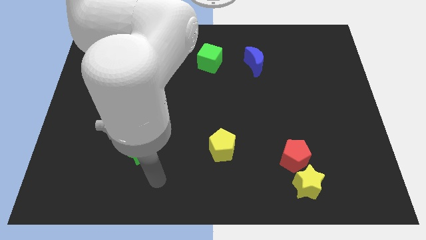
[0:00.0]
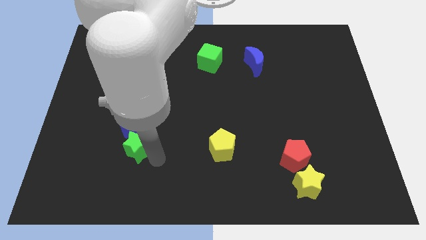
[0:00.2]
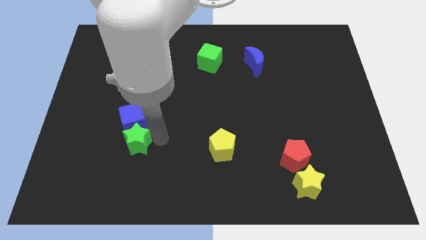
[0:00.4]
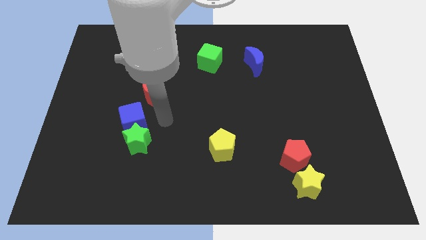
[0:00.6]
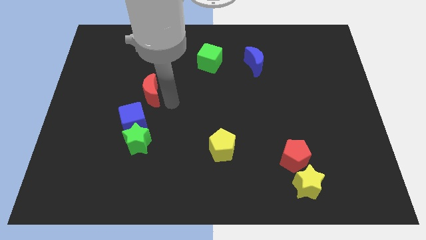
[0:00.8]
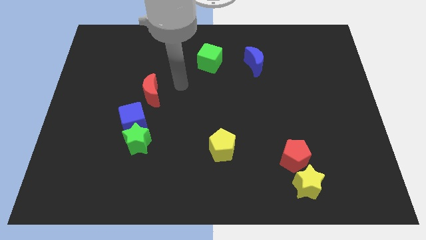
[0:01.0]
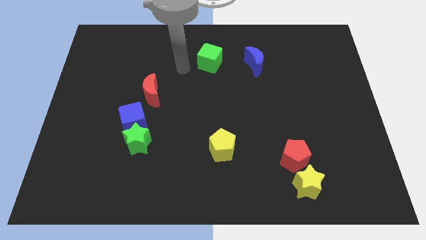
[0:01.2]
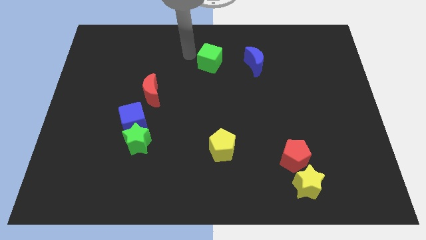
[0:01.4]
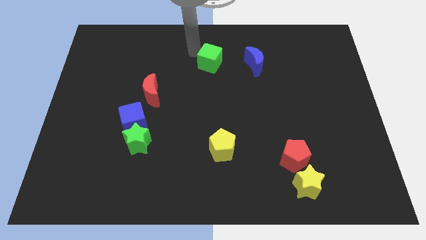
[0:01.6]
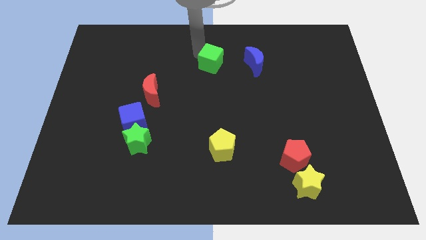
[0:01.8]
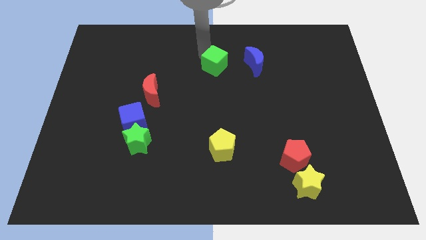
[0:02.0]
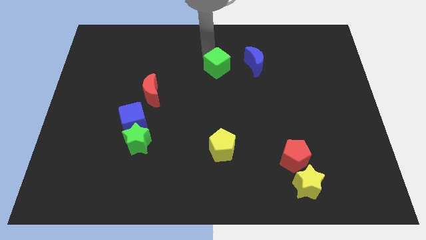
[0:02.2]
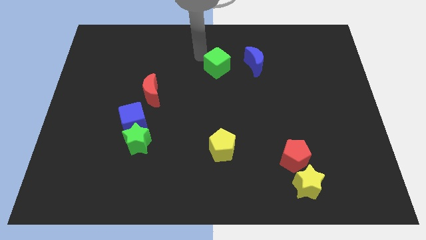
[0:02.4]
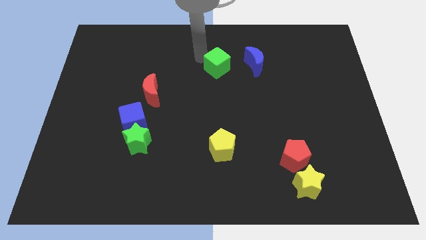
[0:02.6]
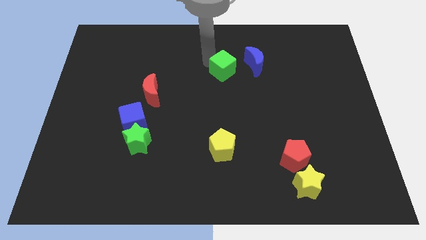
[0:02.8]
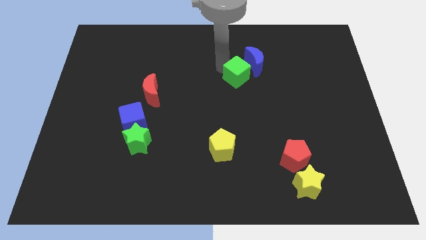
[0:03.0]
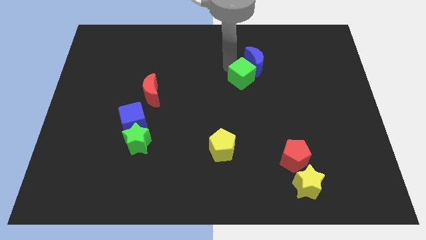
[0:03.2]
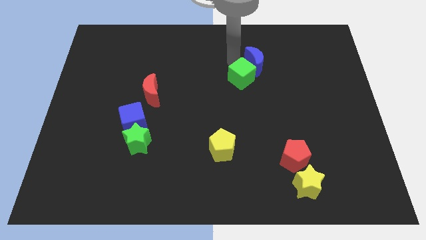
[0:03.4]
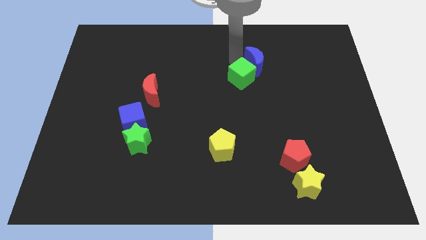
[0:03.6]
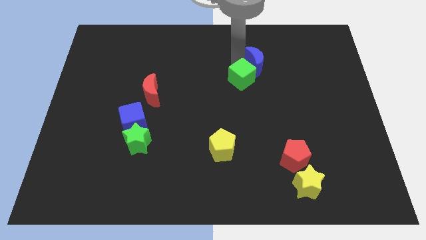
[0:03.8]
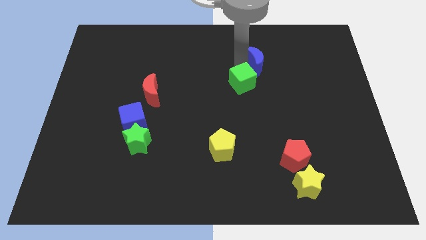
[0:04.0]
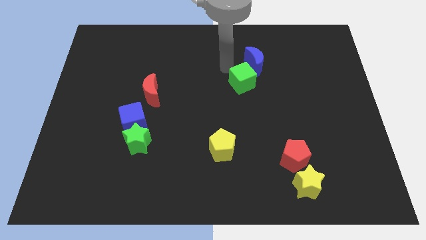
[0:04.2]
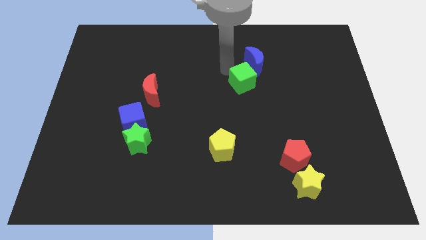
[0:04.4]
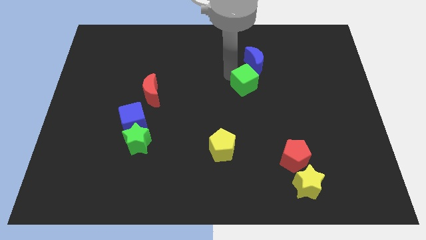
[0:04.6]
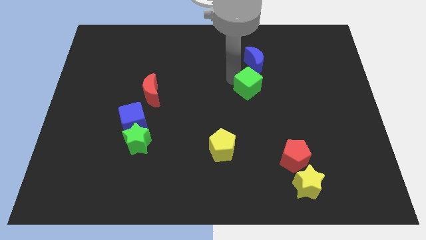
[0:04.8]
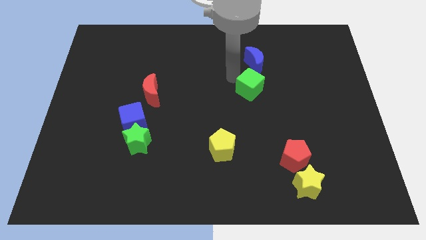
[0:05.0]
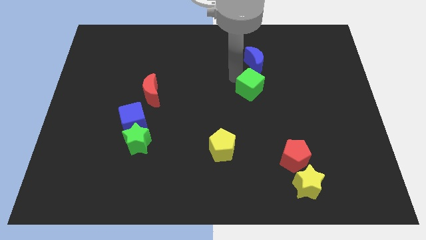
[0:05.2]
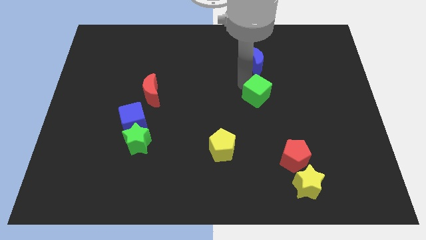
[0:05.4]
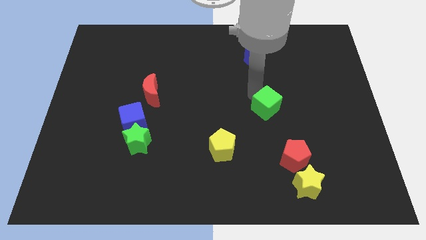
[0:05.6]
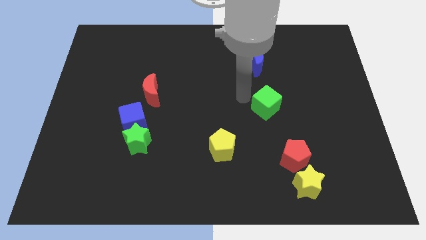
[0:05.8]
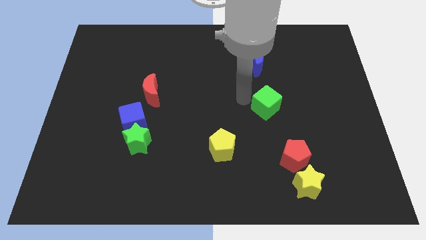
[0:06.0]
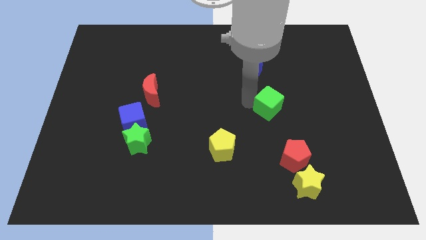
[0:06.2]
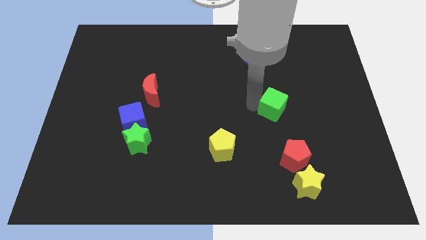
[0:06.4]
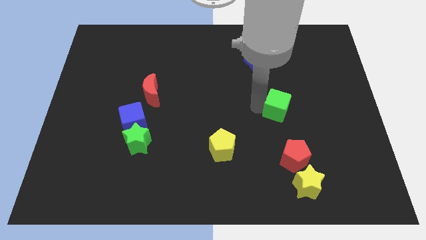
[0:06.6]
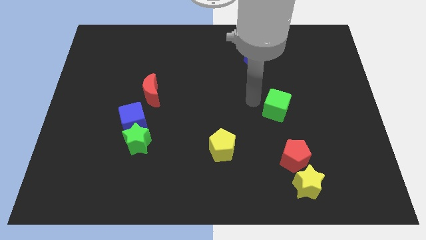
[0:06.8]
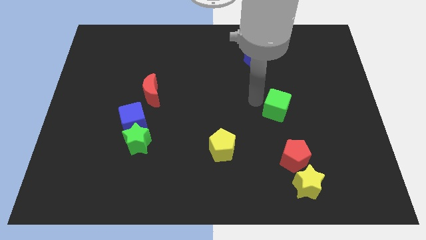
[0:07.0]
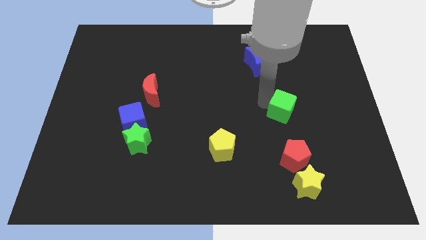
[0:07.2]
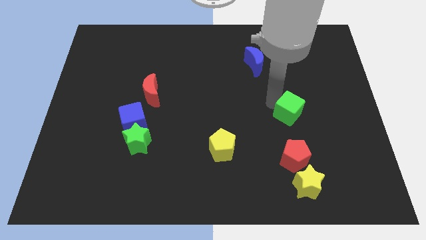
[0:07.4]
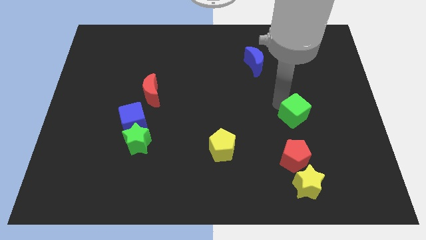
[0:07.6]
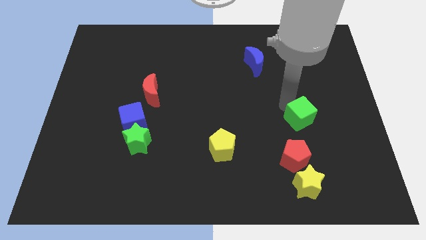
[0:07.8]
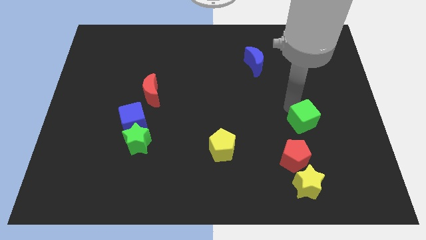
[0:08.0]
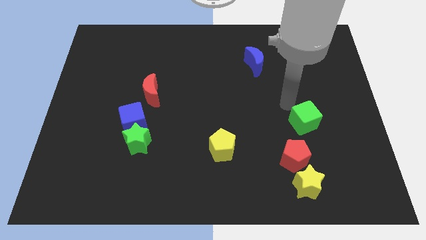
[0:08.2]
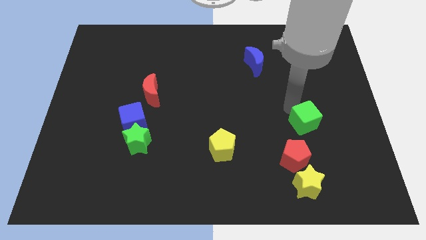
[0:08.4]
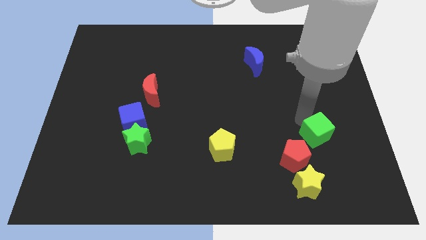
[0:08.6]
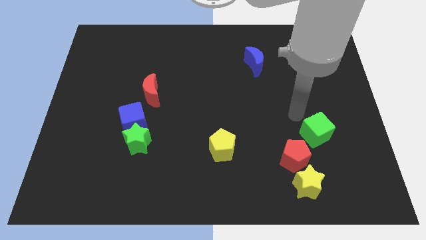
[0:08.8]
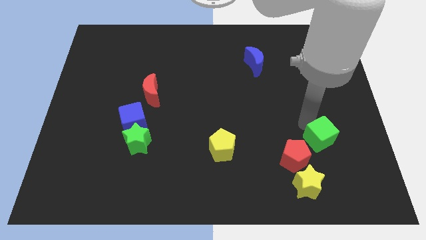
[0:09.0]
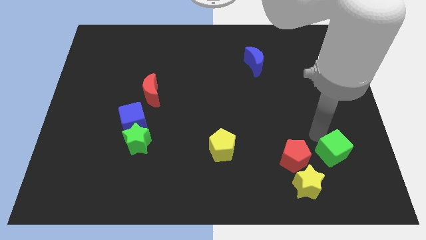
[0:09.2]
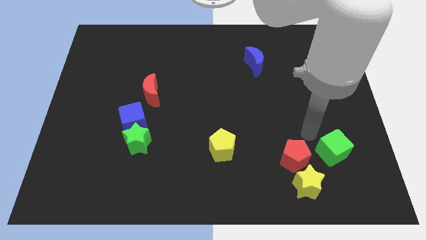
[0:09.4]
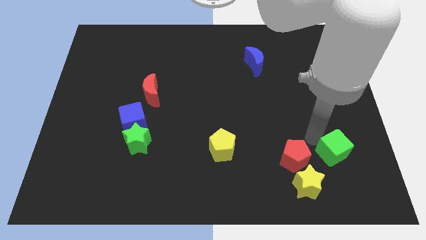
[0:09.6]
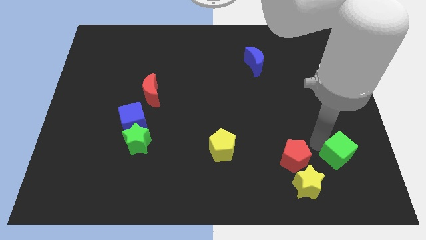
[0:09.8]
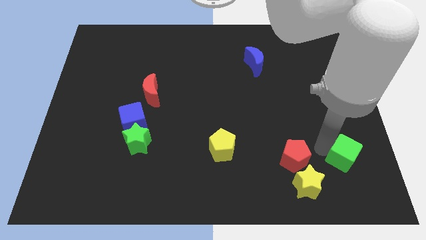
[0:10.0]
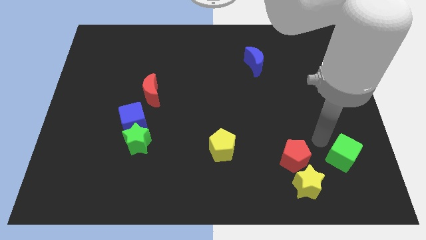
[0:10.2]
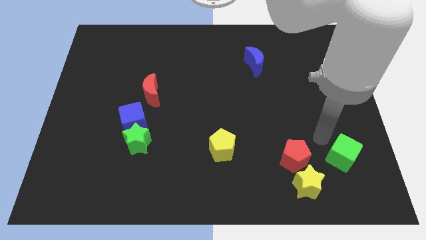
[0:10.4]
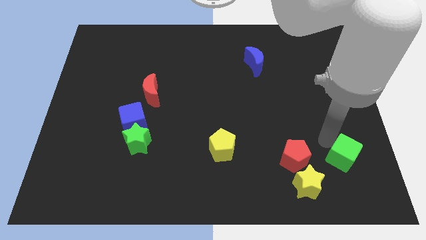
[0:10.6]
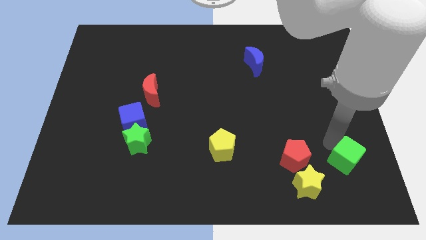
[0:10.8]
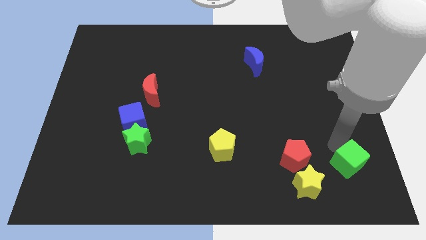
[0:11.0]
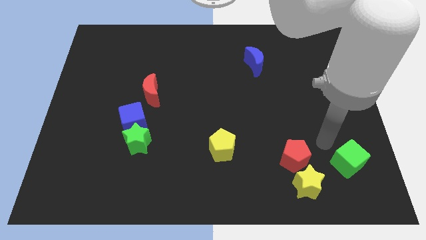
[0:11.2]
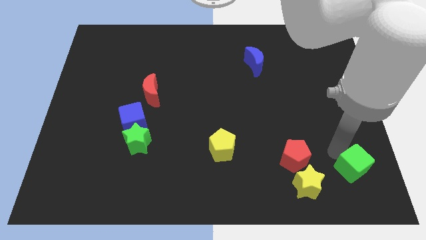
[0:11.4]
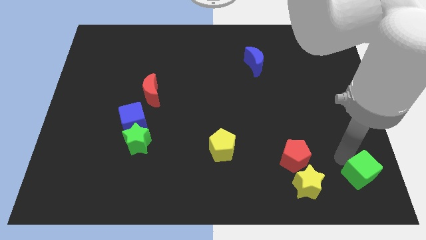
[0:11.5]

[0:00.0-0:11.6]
push the green cube to the bottom right of the board

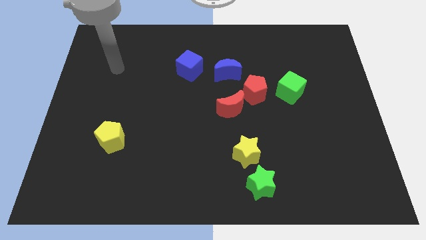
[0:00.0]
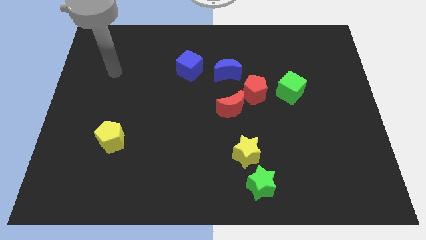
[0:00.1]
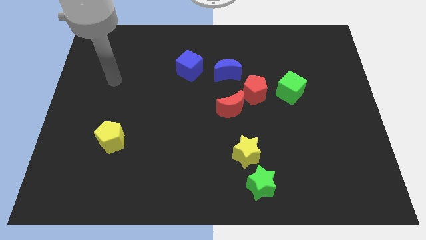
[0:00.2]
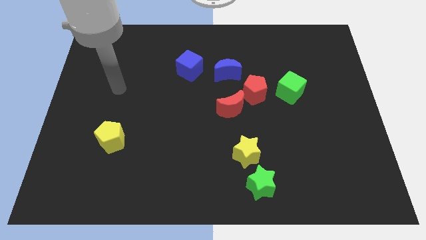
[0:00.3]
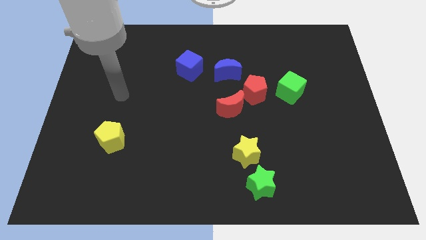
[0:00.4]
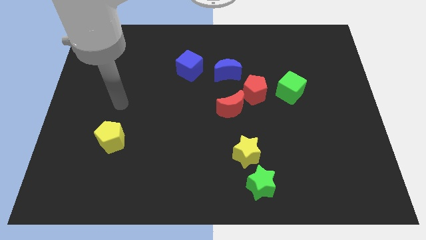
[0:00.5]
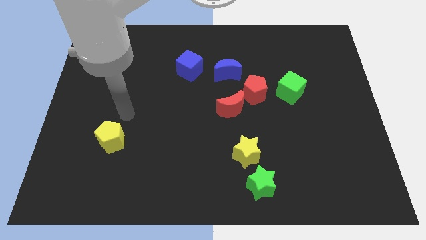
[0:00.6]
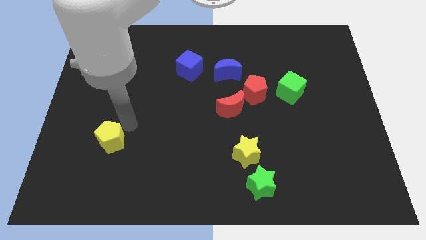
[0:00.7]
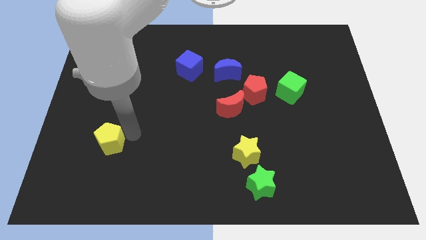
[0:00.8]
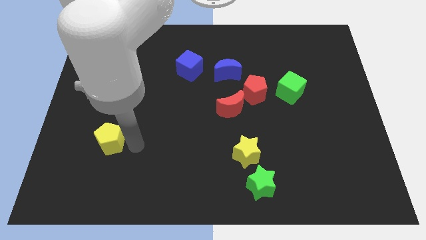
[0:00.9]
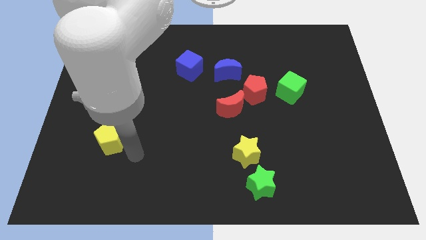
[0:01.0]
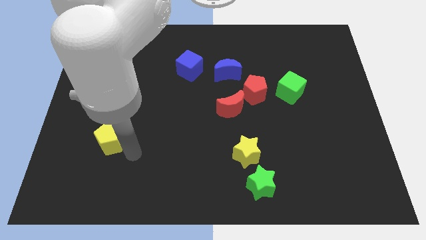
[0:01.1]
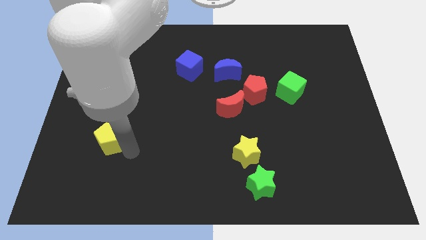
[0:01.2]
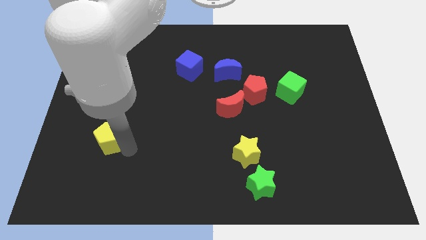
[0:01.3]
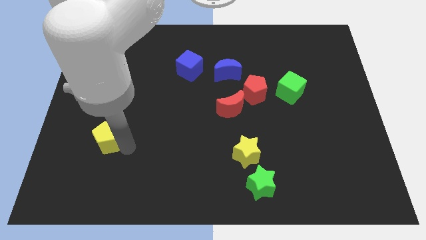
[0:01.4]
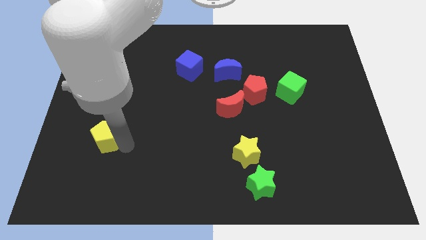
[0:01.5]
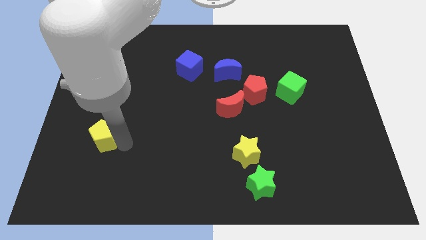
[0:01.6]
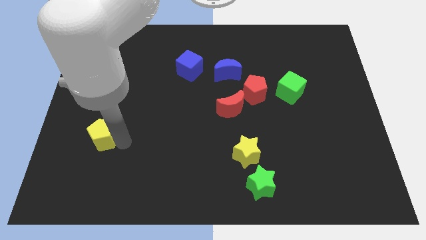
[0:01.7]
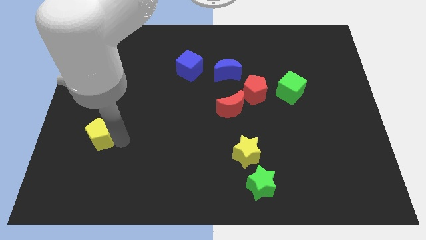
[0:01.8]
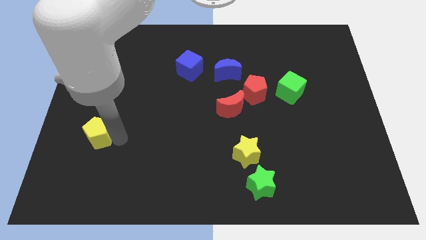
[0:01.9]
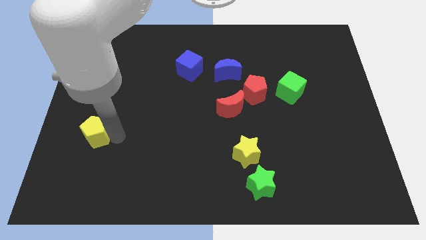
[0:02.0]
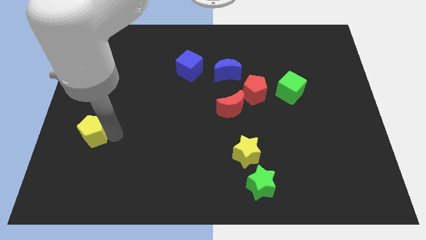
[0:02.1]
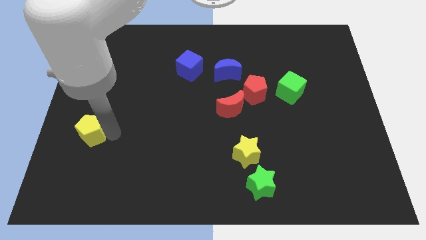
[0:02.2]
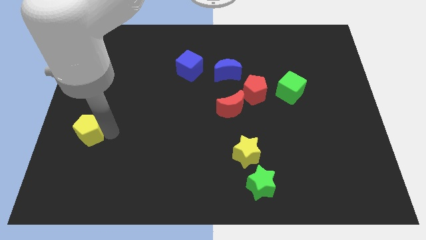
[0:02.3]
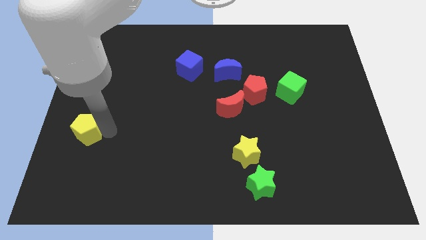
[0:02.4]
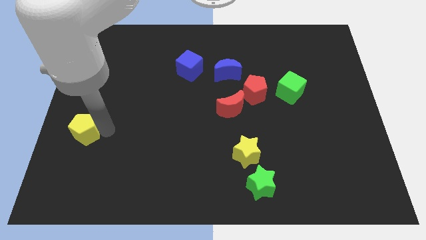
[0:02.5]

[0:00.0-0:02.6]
push the yellow pentagon to the left side
